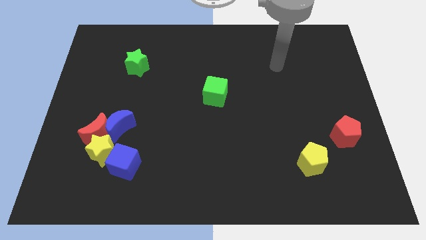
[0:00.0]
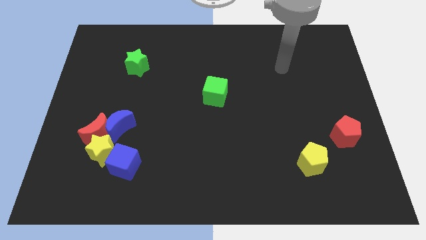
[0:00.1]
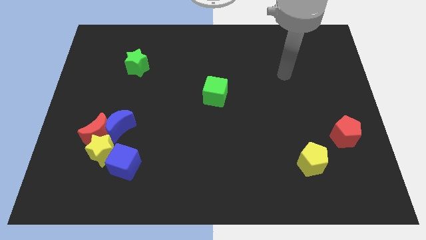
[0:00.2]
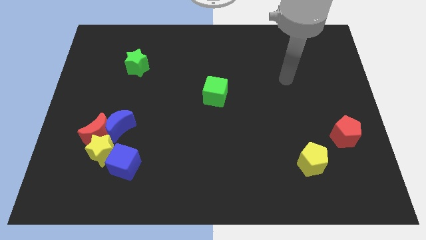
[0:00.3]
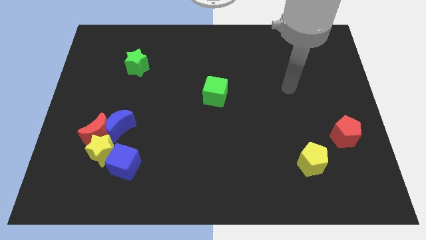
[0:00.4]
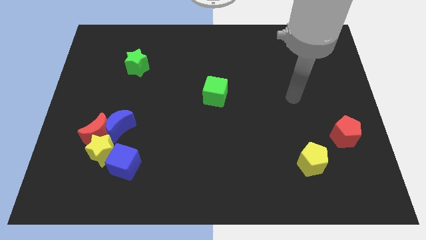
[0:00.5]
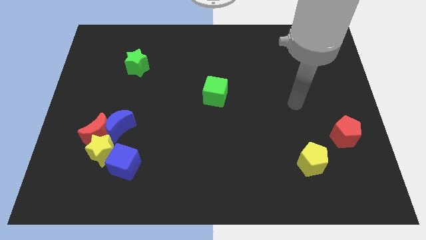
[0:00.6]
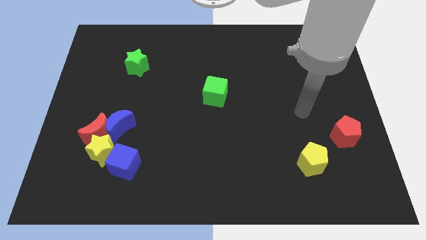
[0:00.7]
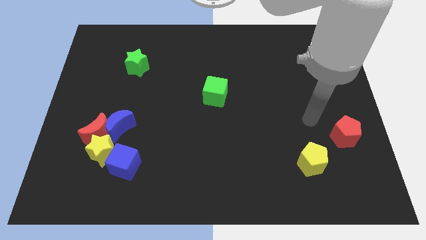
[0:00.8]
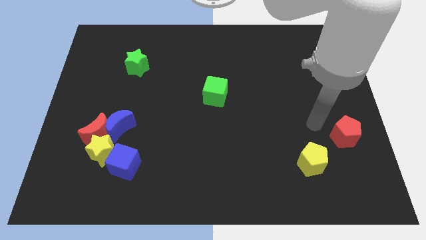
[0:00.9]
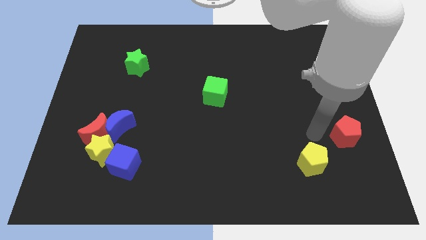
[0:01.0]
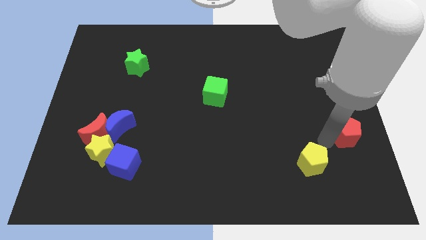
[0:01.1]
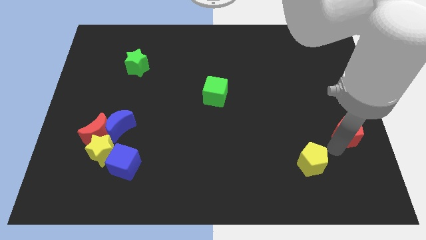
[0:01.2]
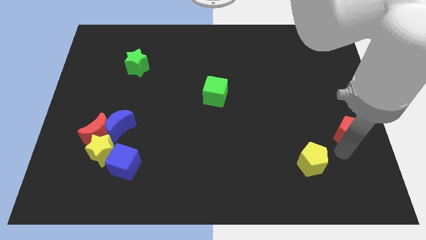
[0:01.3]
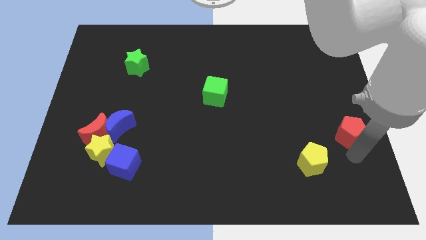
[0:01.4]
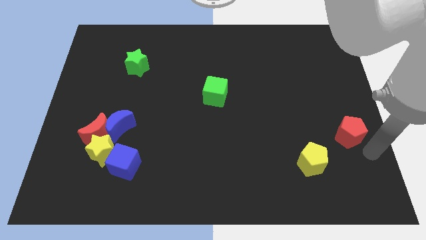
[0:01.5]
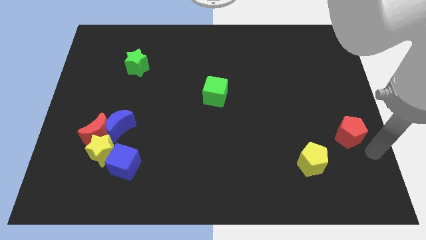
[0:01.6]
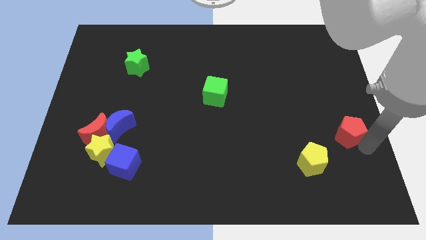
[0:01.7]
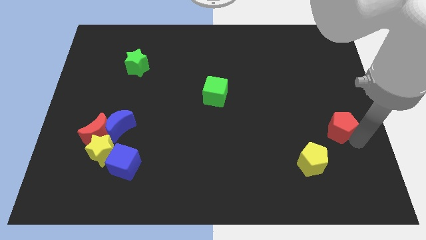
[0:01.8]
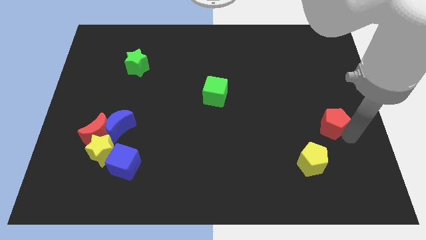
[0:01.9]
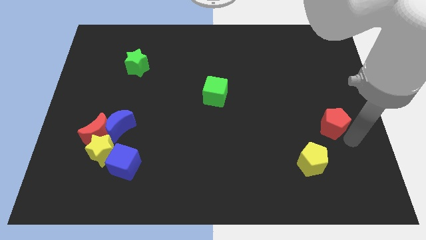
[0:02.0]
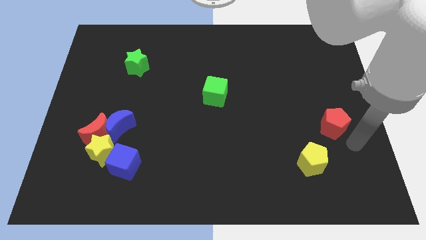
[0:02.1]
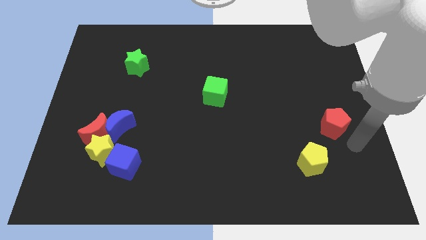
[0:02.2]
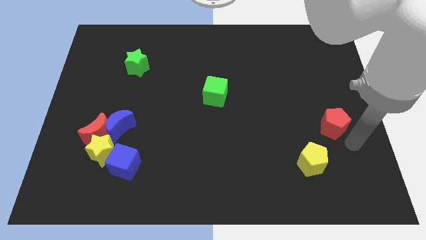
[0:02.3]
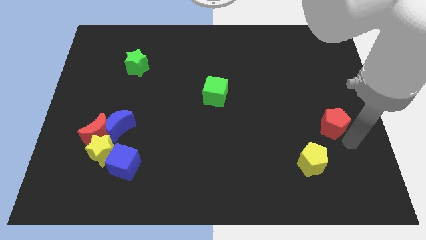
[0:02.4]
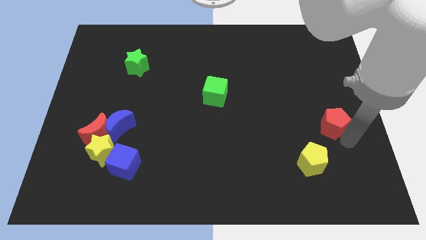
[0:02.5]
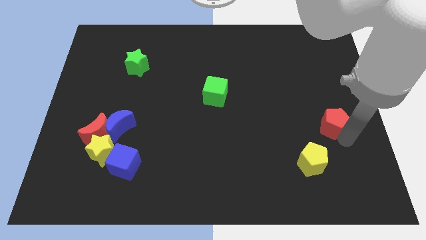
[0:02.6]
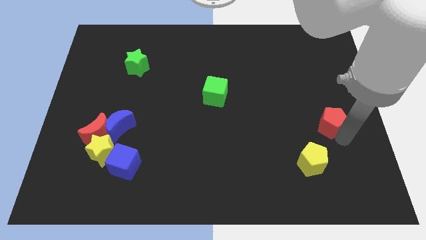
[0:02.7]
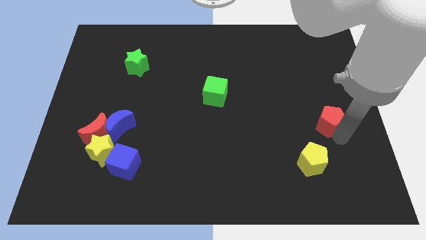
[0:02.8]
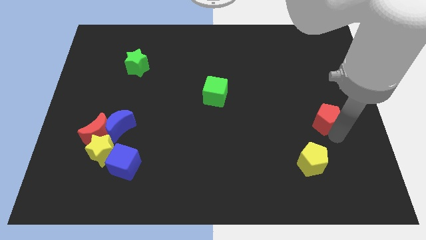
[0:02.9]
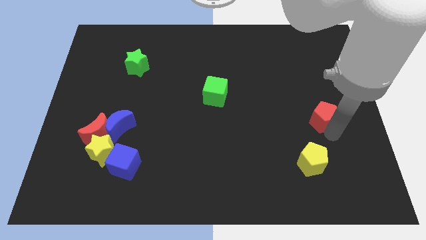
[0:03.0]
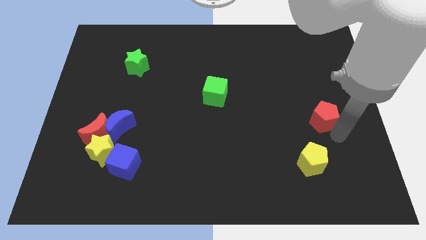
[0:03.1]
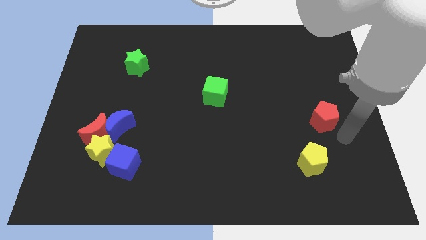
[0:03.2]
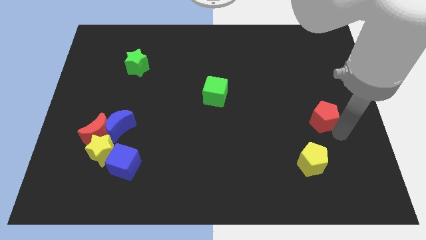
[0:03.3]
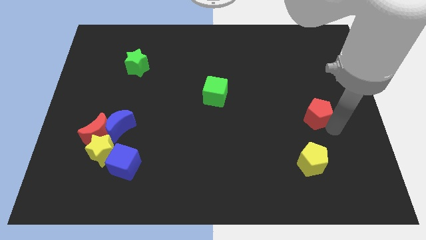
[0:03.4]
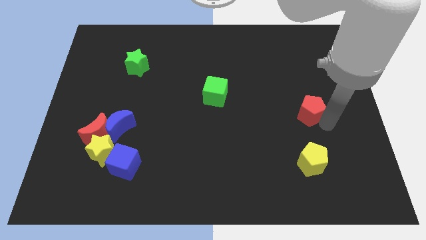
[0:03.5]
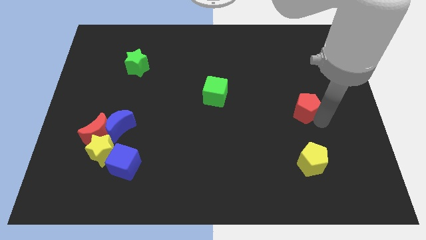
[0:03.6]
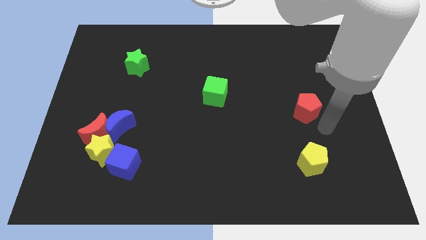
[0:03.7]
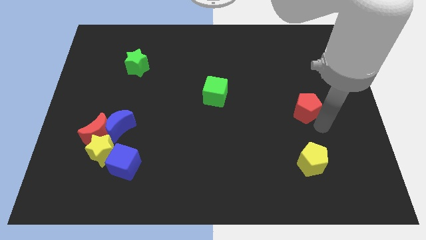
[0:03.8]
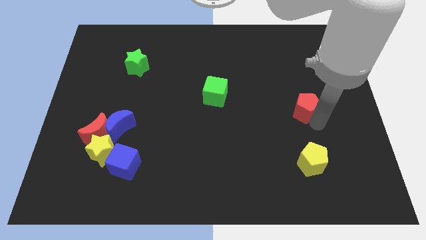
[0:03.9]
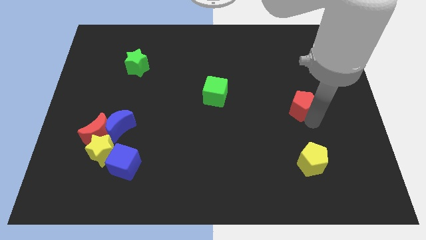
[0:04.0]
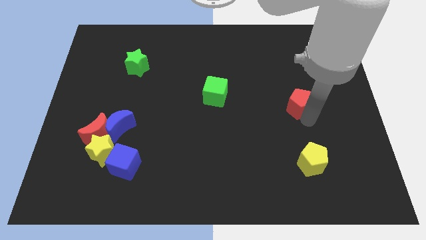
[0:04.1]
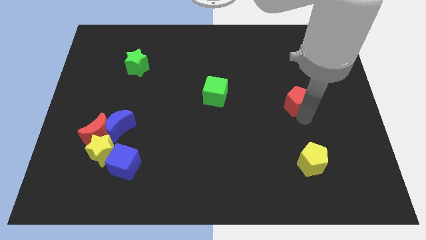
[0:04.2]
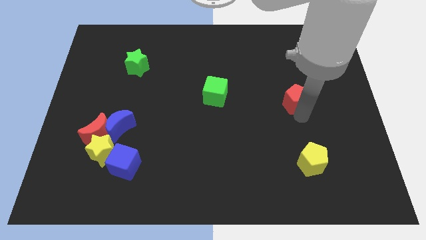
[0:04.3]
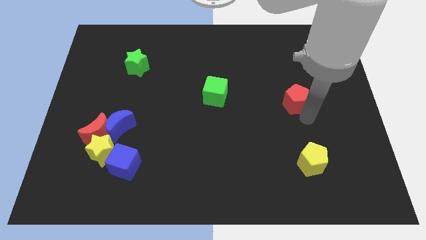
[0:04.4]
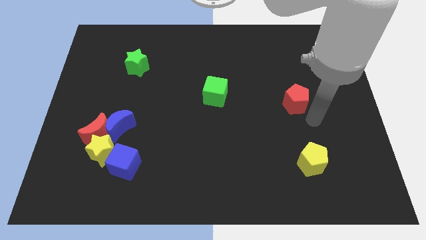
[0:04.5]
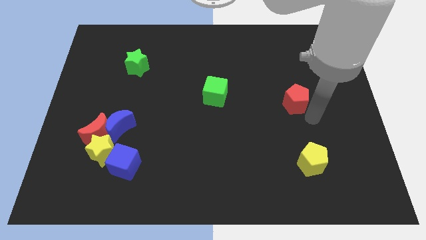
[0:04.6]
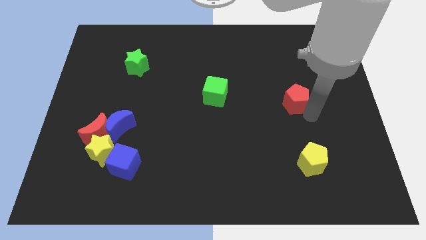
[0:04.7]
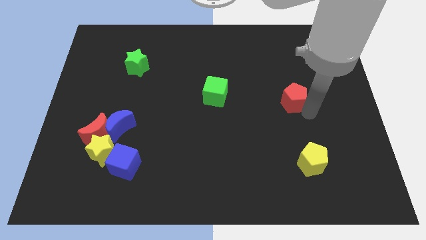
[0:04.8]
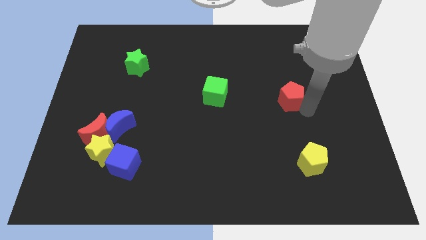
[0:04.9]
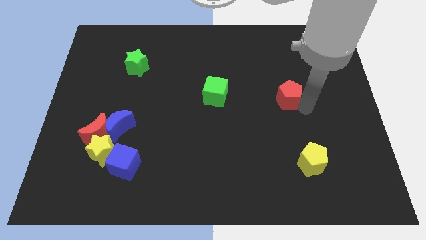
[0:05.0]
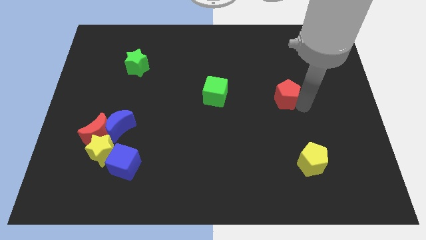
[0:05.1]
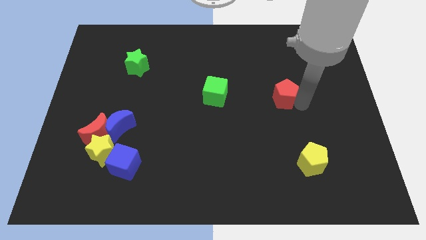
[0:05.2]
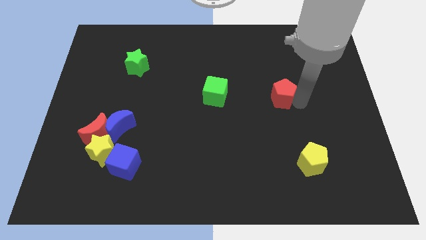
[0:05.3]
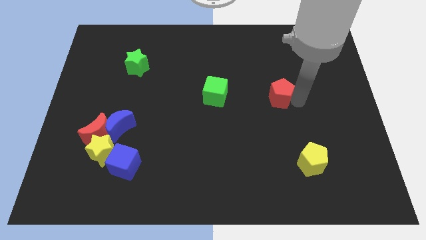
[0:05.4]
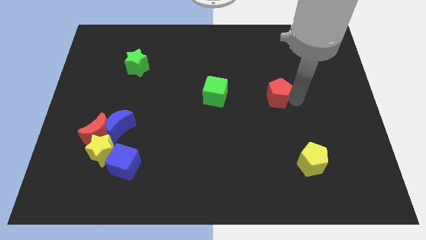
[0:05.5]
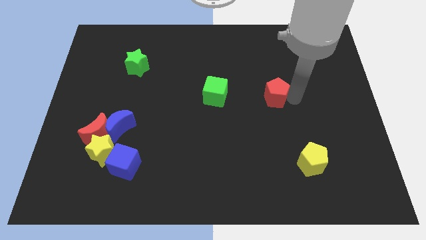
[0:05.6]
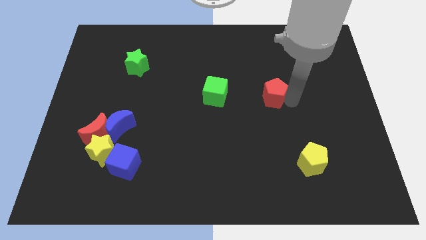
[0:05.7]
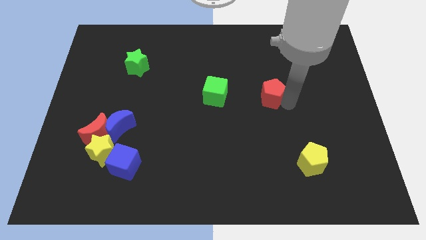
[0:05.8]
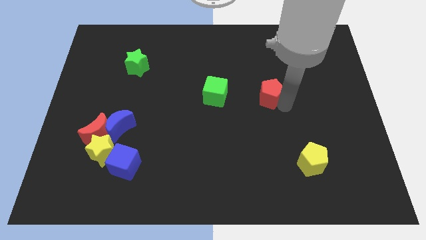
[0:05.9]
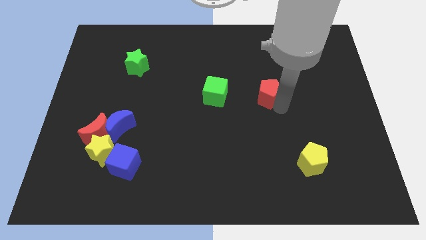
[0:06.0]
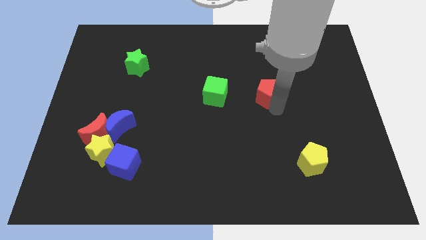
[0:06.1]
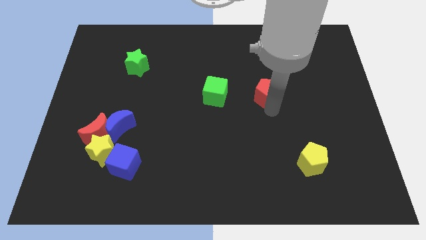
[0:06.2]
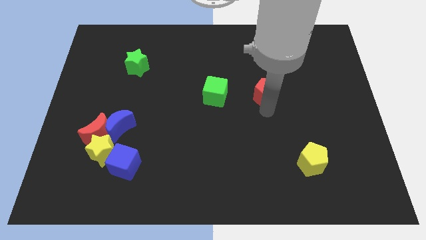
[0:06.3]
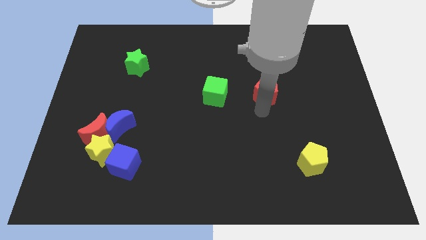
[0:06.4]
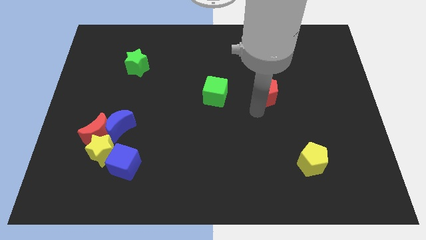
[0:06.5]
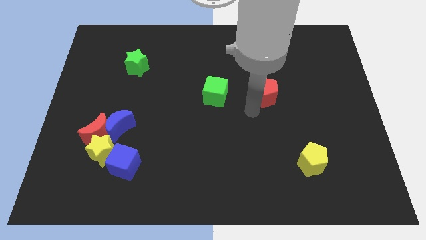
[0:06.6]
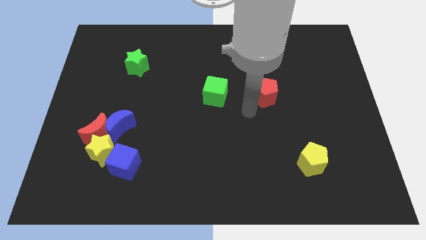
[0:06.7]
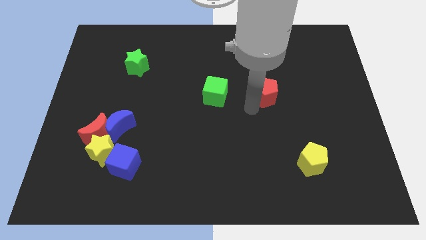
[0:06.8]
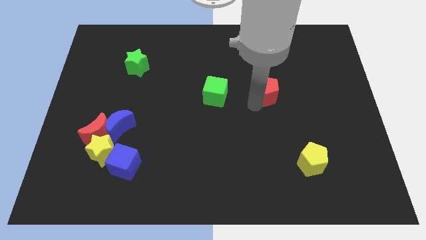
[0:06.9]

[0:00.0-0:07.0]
slide the red pentagon upwards and to the left diagonally

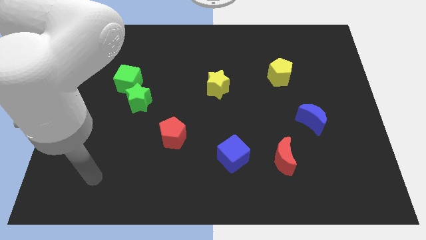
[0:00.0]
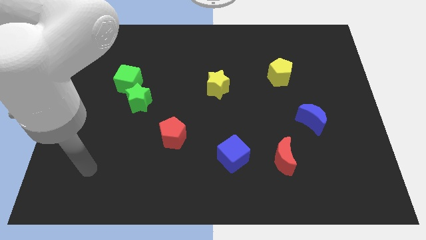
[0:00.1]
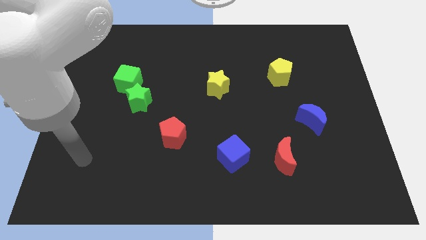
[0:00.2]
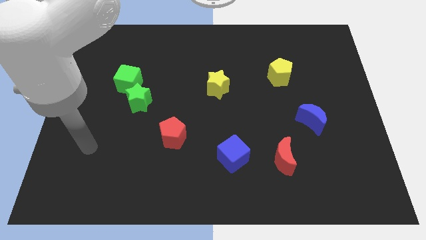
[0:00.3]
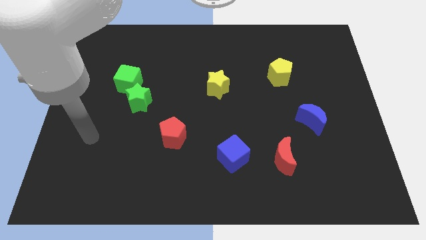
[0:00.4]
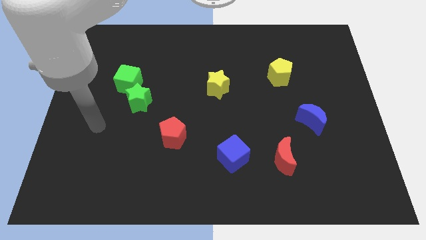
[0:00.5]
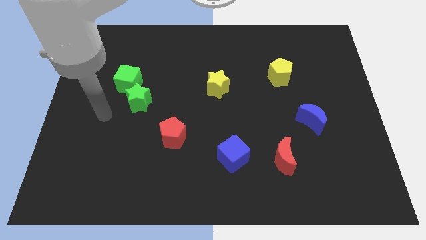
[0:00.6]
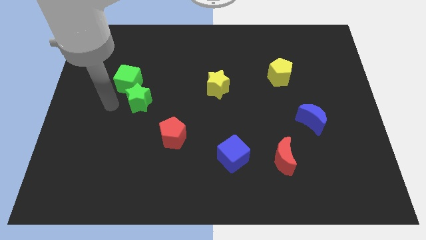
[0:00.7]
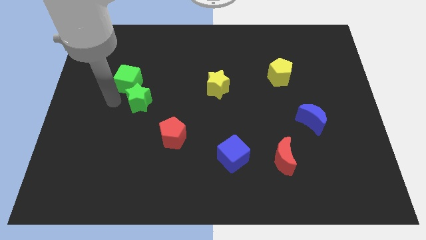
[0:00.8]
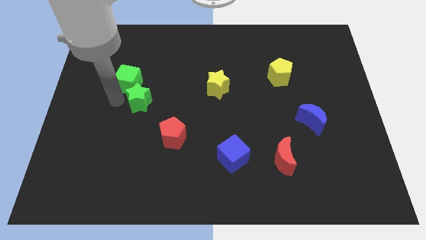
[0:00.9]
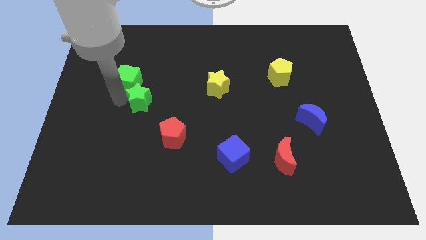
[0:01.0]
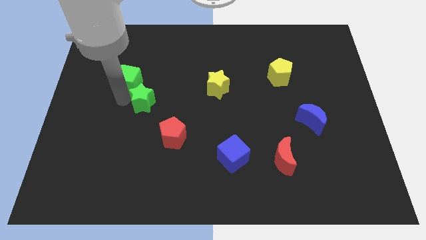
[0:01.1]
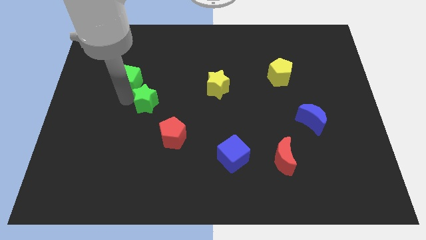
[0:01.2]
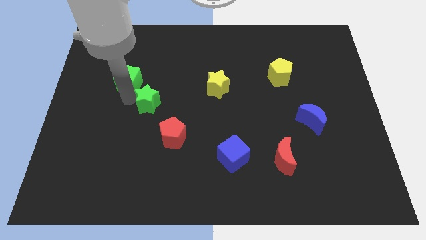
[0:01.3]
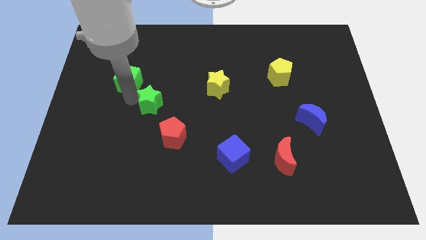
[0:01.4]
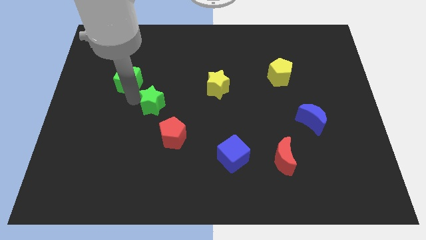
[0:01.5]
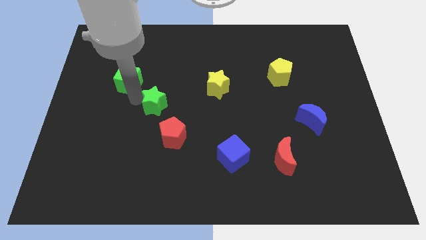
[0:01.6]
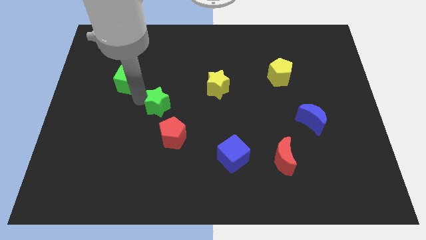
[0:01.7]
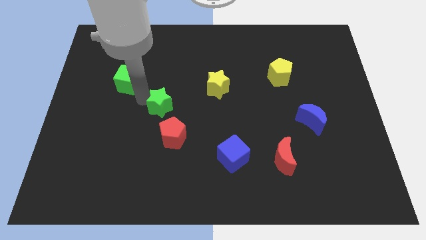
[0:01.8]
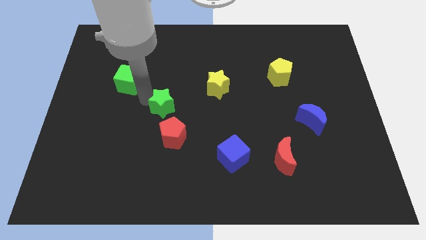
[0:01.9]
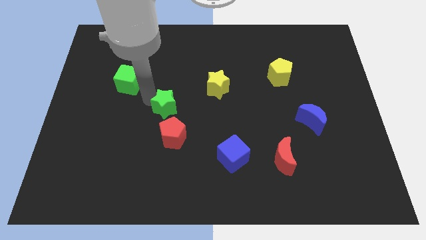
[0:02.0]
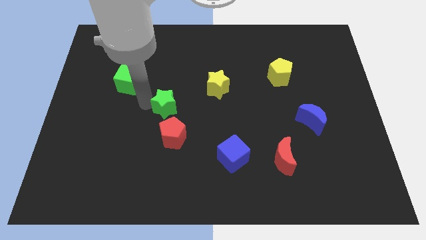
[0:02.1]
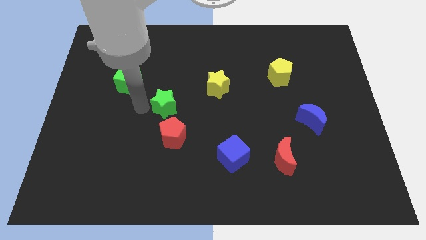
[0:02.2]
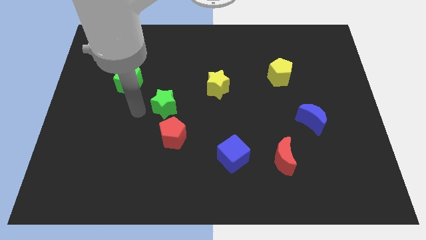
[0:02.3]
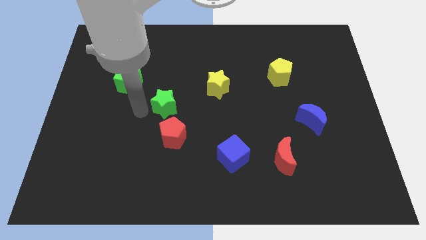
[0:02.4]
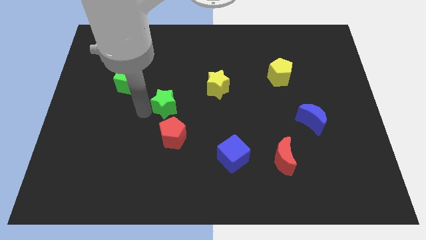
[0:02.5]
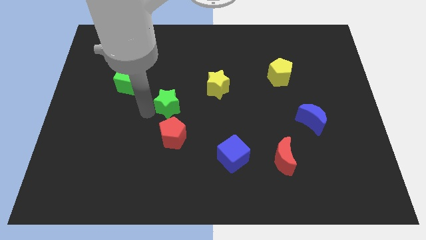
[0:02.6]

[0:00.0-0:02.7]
push the green star slightly to the right
